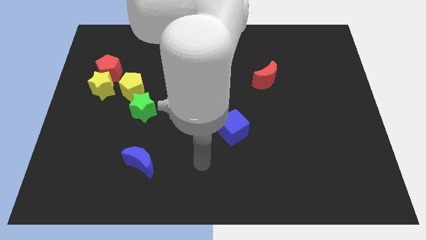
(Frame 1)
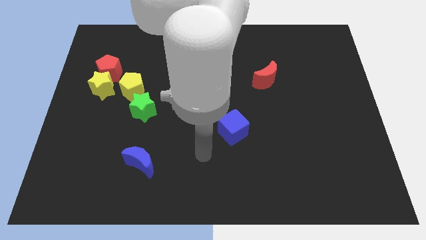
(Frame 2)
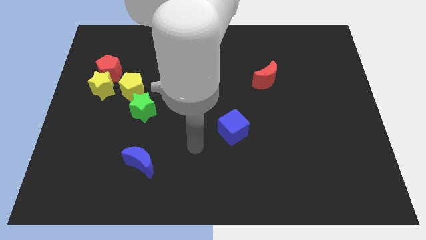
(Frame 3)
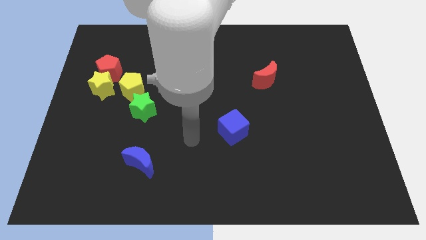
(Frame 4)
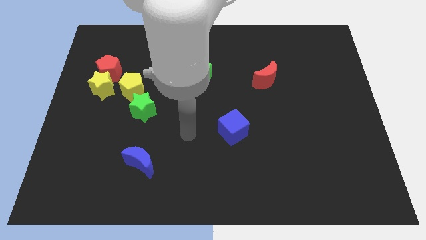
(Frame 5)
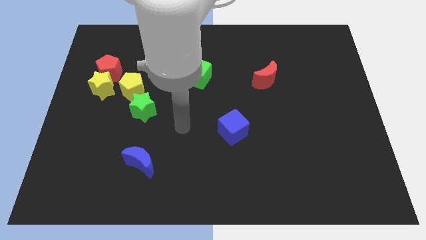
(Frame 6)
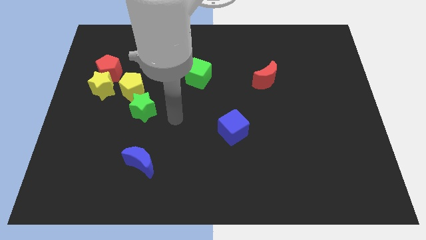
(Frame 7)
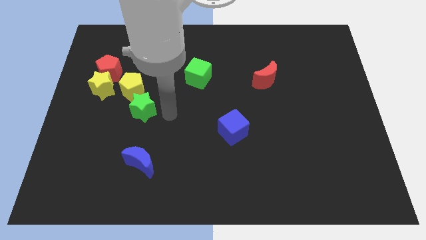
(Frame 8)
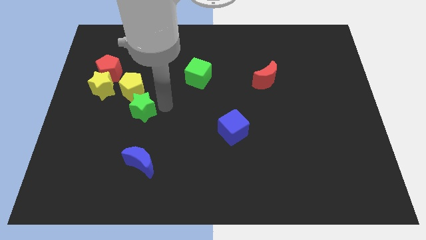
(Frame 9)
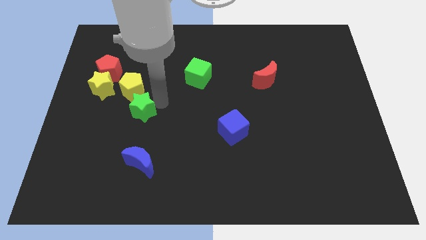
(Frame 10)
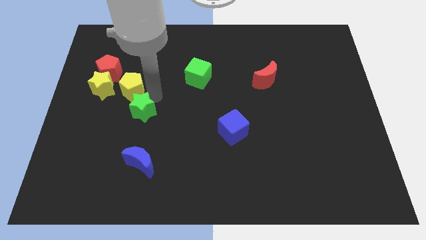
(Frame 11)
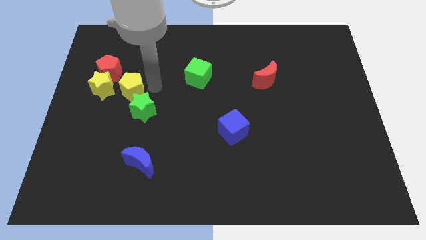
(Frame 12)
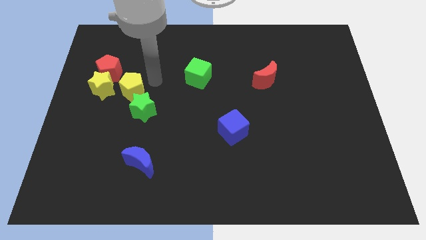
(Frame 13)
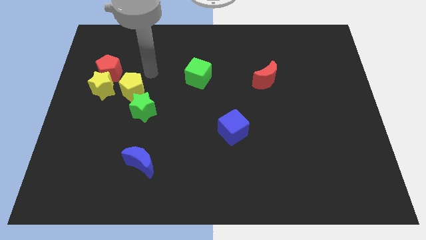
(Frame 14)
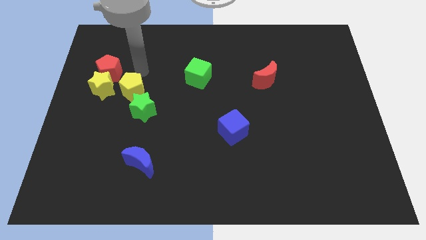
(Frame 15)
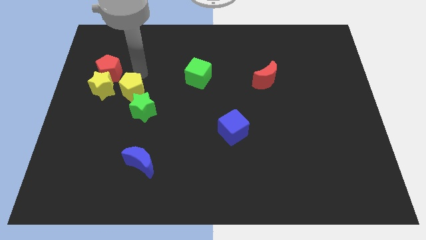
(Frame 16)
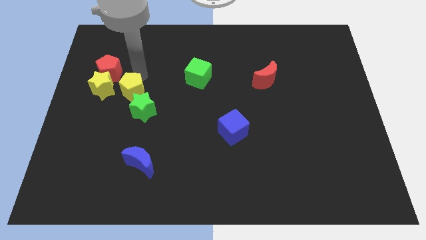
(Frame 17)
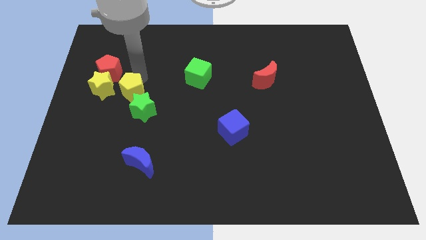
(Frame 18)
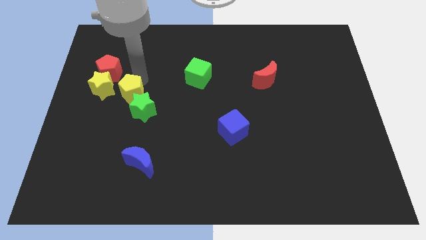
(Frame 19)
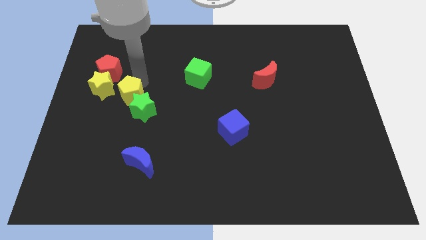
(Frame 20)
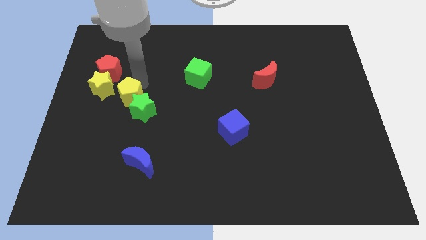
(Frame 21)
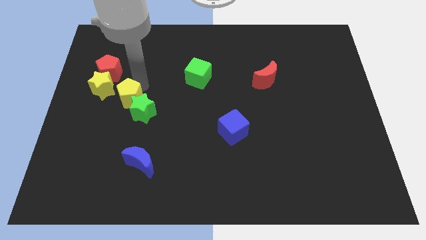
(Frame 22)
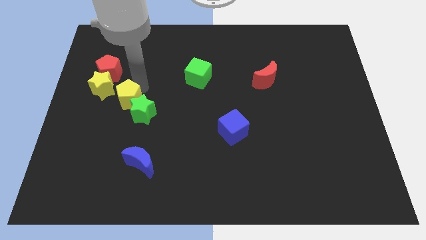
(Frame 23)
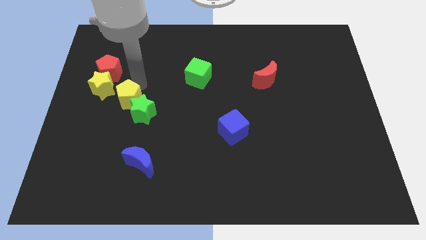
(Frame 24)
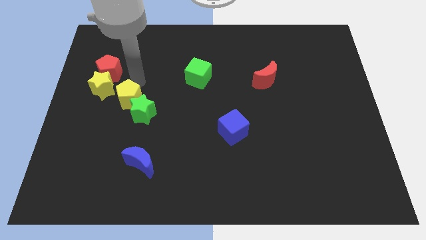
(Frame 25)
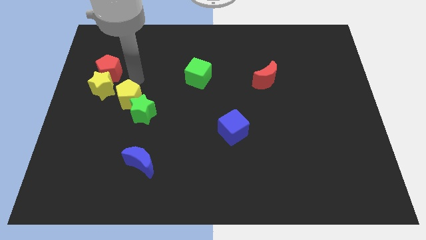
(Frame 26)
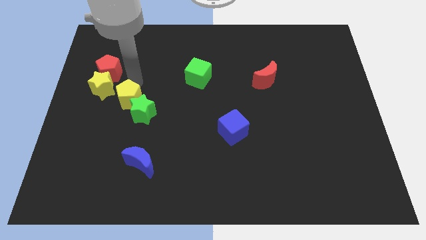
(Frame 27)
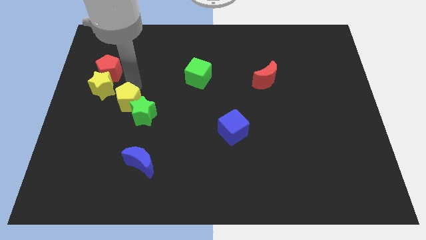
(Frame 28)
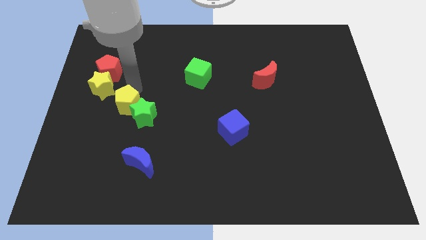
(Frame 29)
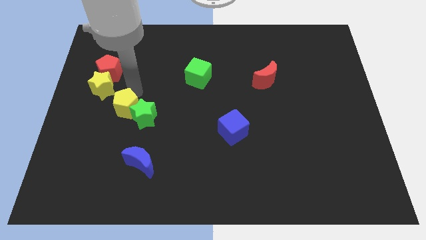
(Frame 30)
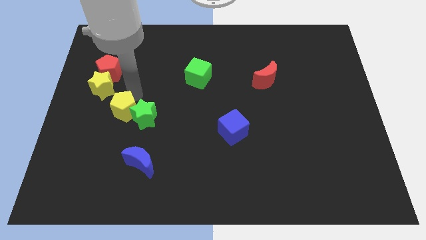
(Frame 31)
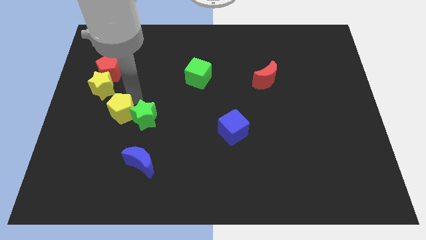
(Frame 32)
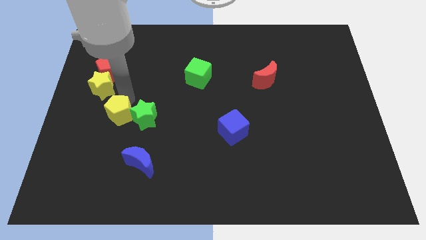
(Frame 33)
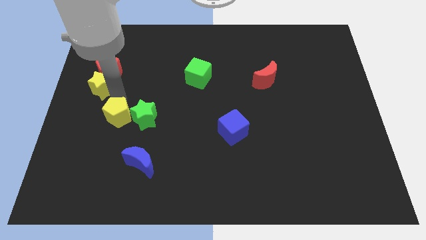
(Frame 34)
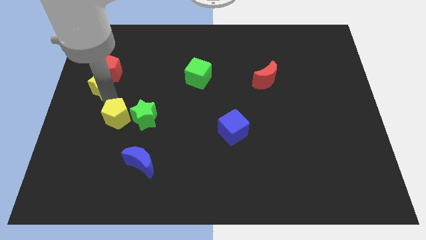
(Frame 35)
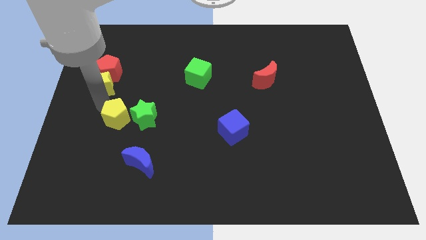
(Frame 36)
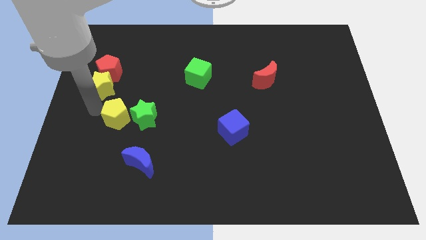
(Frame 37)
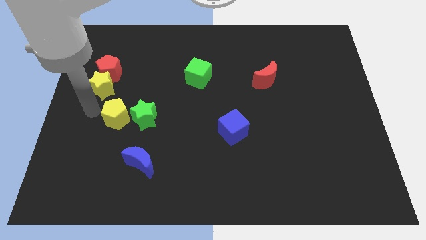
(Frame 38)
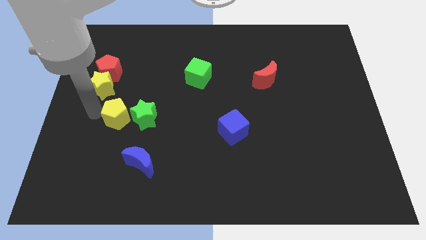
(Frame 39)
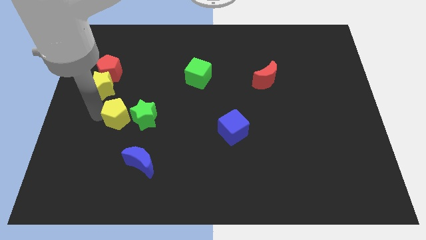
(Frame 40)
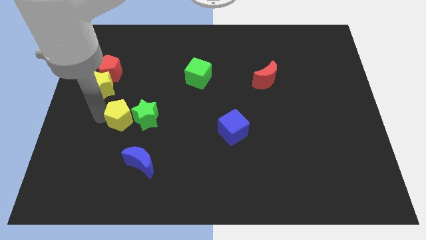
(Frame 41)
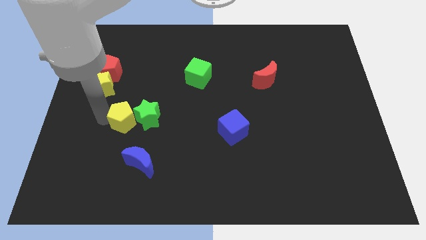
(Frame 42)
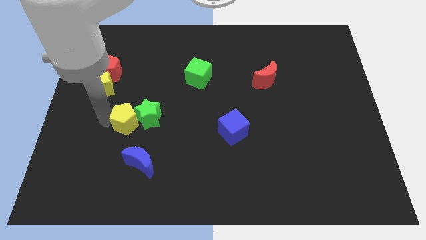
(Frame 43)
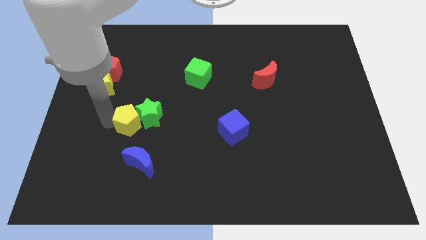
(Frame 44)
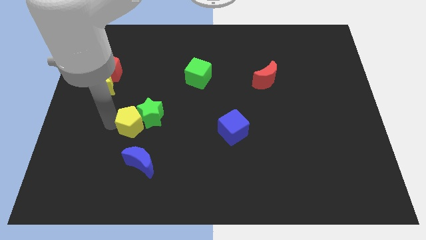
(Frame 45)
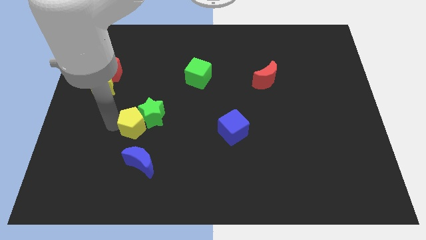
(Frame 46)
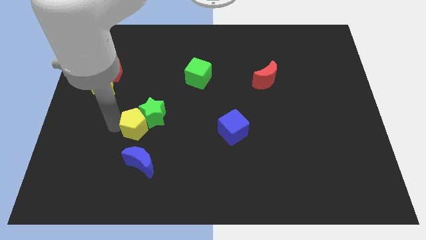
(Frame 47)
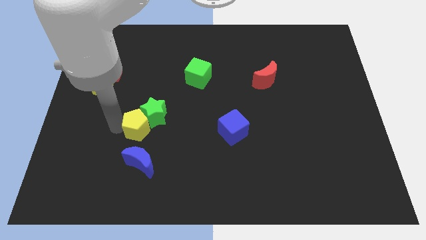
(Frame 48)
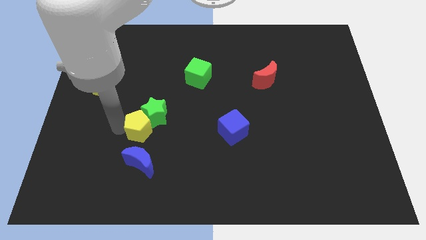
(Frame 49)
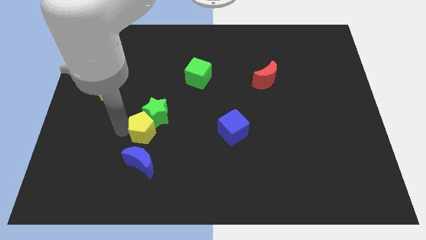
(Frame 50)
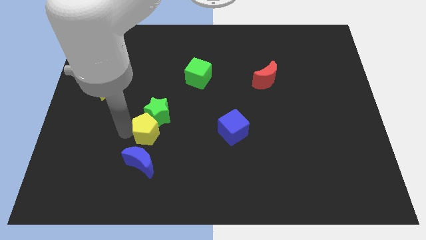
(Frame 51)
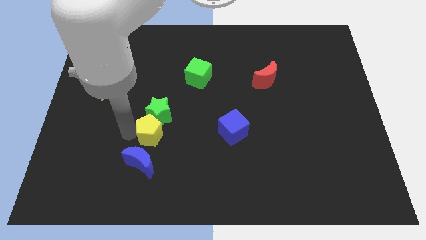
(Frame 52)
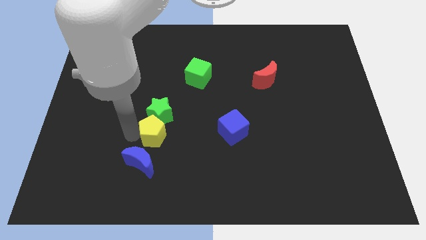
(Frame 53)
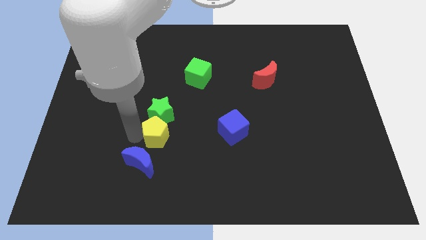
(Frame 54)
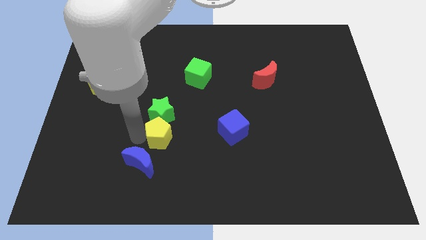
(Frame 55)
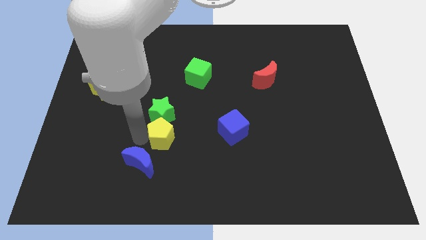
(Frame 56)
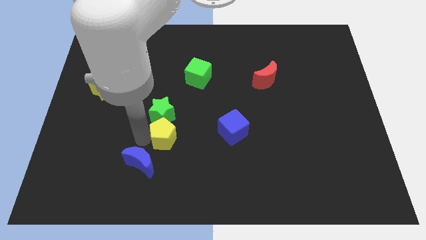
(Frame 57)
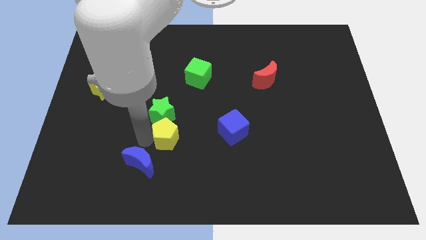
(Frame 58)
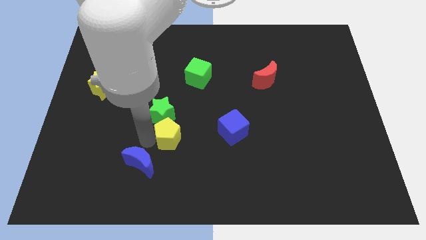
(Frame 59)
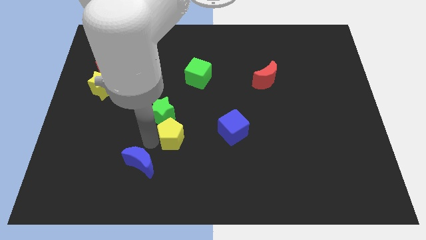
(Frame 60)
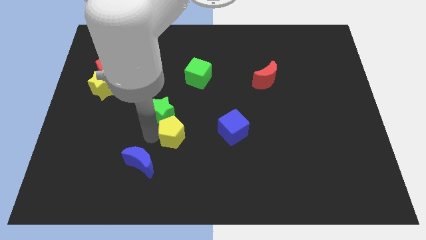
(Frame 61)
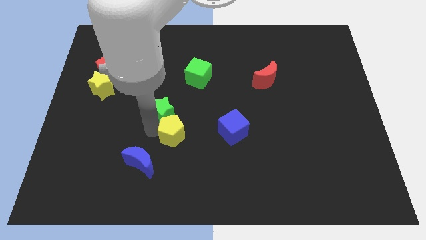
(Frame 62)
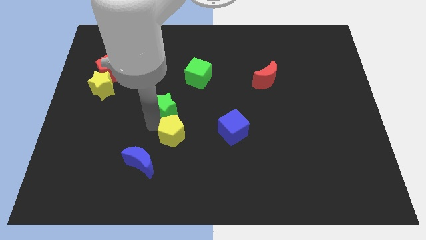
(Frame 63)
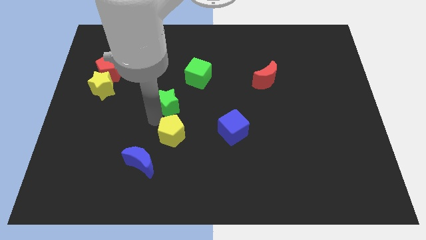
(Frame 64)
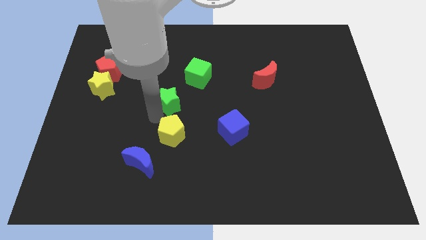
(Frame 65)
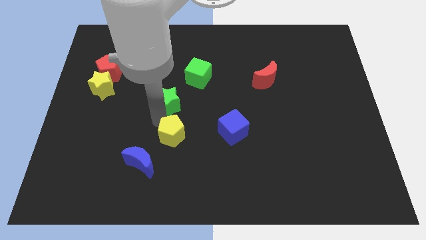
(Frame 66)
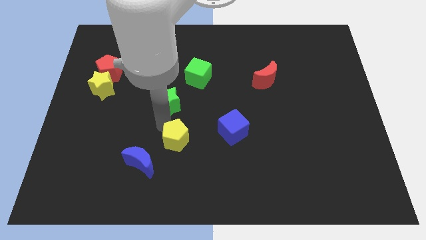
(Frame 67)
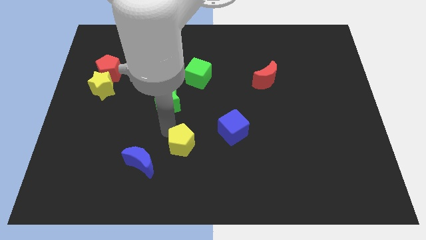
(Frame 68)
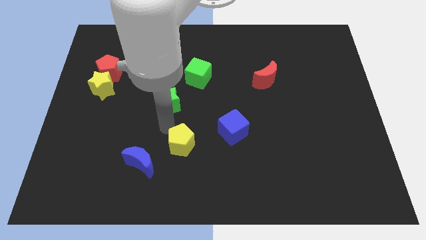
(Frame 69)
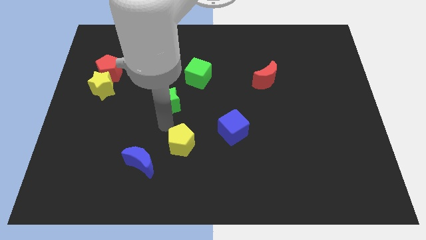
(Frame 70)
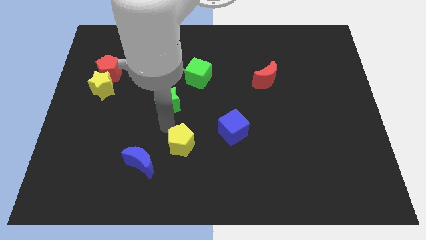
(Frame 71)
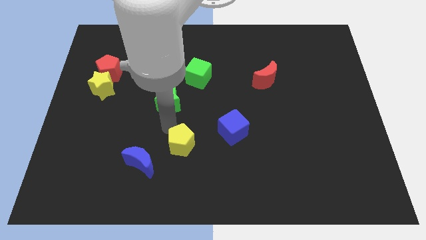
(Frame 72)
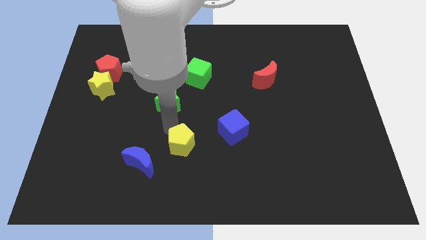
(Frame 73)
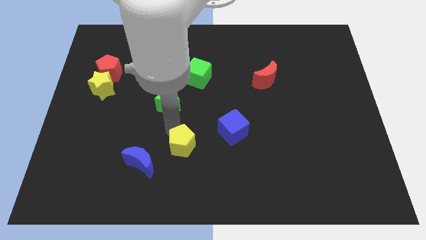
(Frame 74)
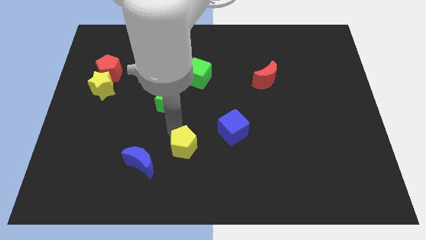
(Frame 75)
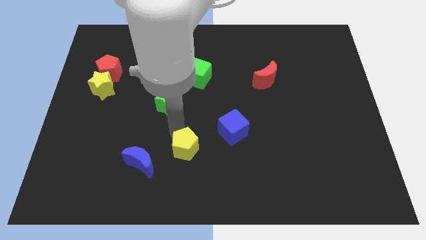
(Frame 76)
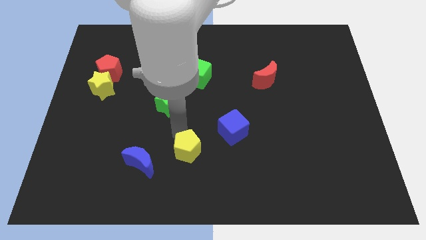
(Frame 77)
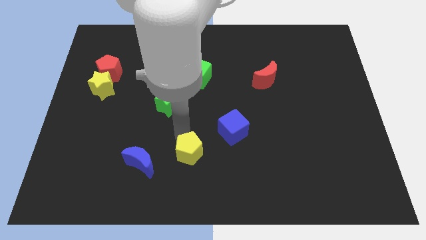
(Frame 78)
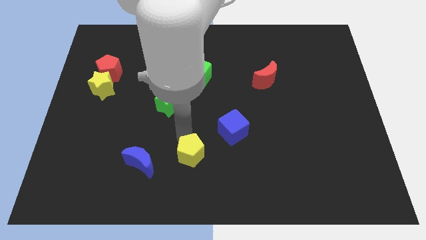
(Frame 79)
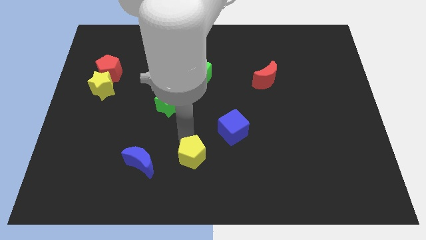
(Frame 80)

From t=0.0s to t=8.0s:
move the yellow pentagon to the bottom
